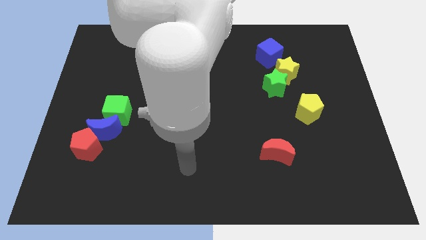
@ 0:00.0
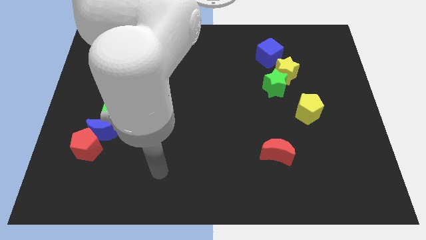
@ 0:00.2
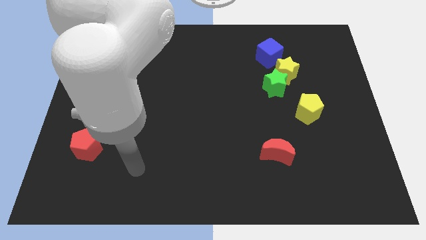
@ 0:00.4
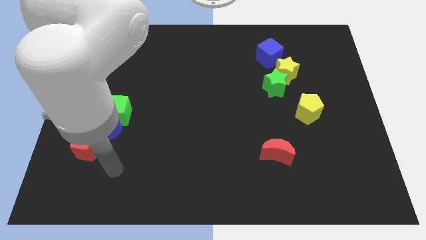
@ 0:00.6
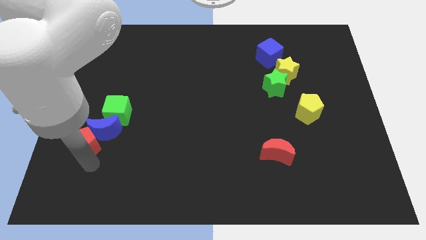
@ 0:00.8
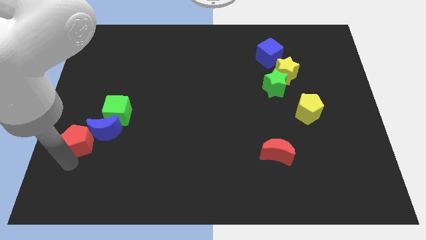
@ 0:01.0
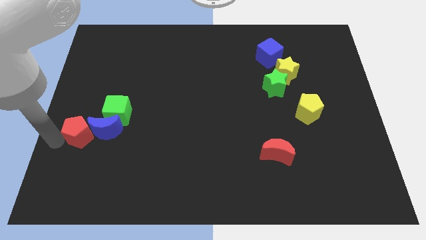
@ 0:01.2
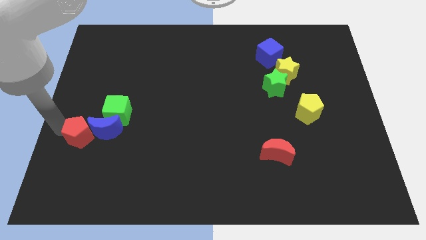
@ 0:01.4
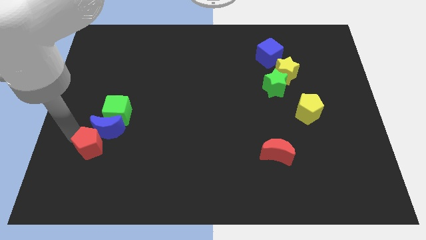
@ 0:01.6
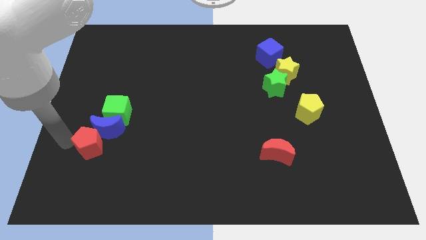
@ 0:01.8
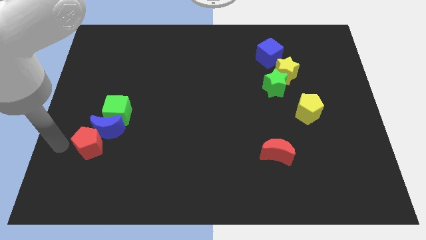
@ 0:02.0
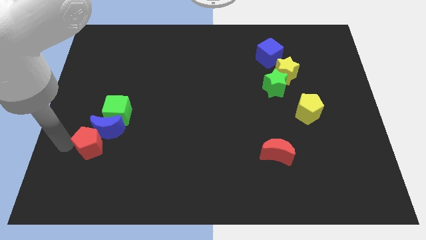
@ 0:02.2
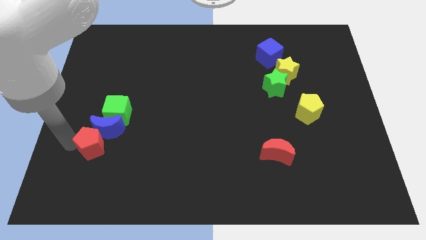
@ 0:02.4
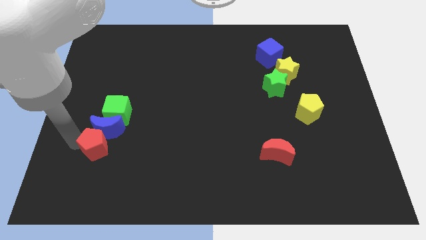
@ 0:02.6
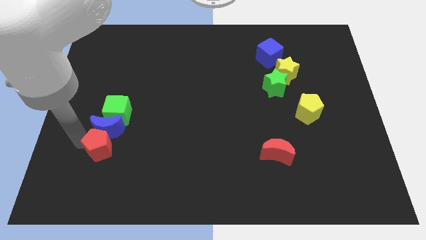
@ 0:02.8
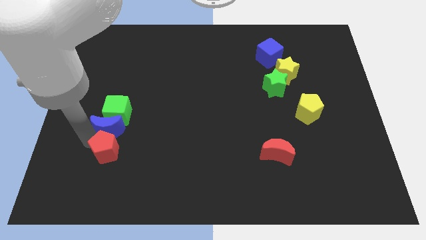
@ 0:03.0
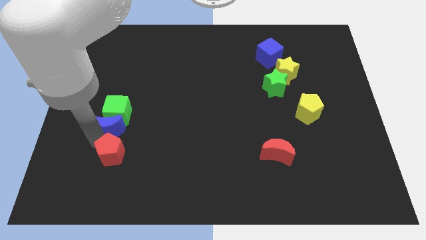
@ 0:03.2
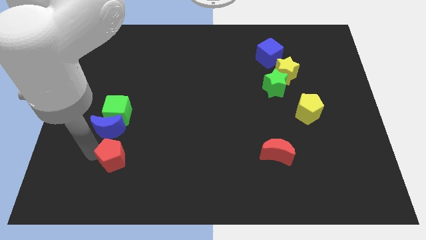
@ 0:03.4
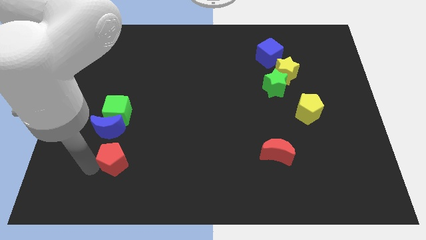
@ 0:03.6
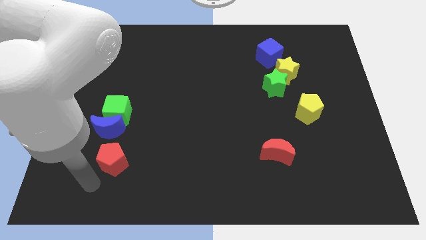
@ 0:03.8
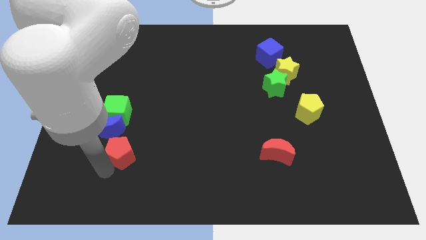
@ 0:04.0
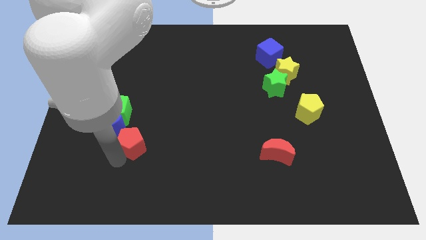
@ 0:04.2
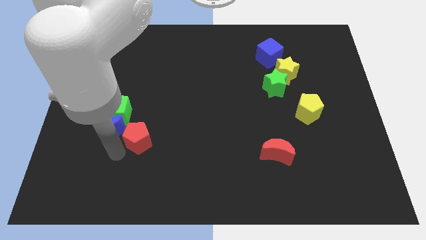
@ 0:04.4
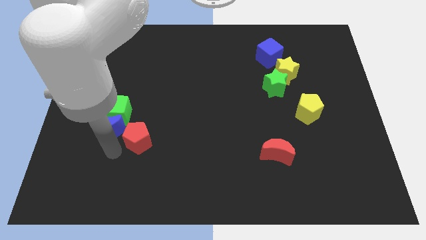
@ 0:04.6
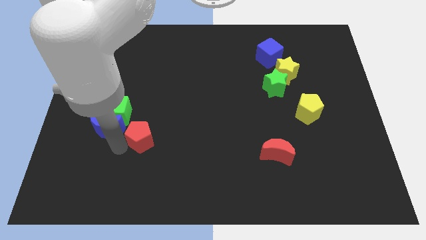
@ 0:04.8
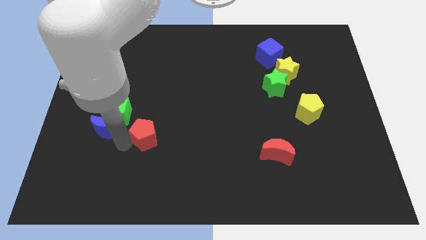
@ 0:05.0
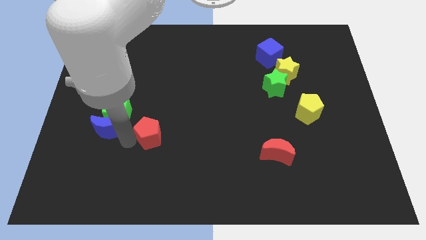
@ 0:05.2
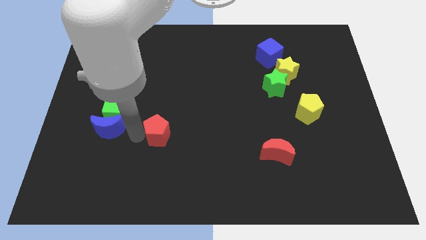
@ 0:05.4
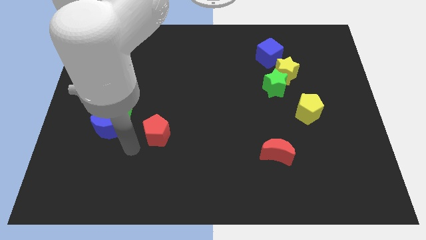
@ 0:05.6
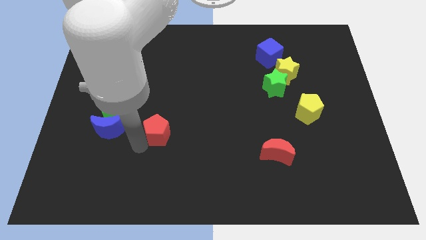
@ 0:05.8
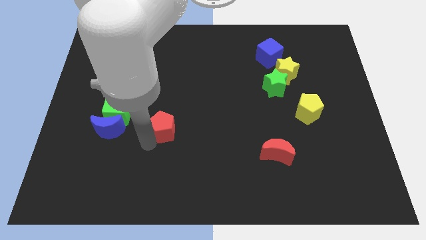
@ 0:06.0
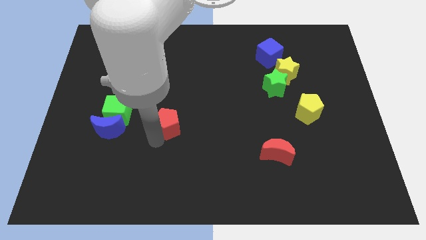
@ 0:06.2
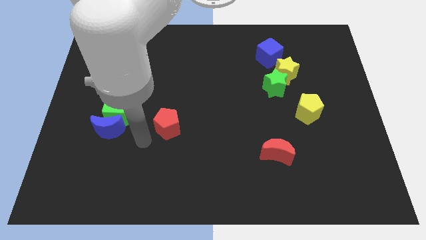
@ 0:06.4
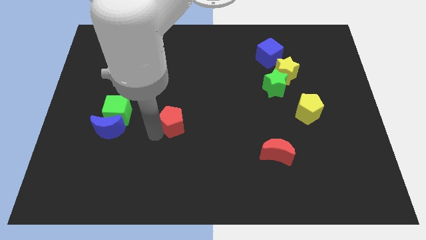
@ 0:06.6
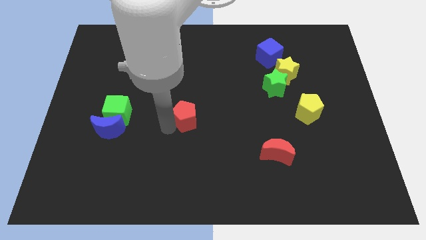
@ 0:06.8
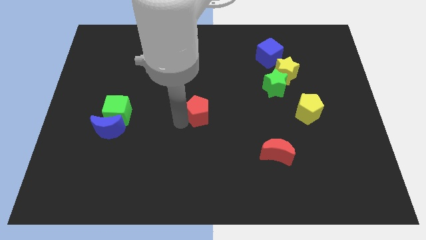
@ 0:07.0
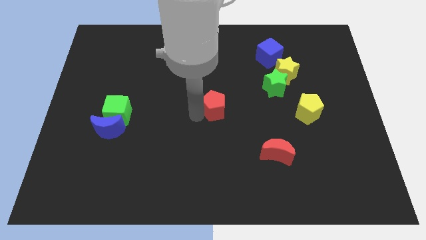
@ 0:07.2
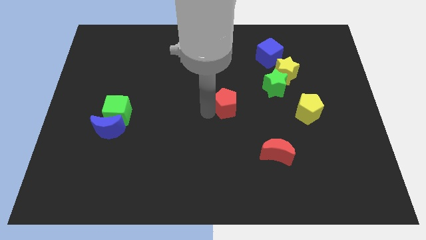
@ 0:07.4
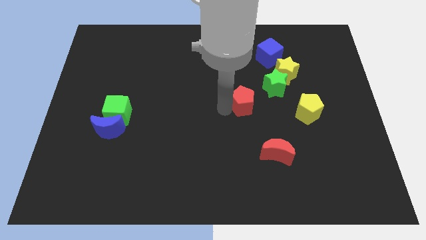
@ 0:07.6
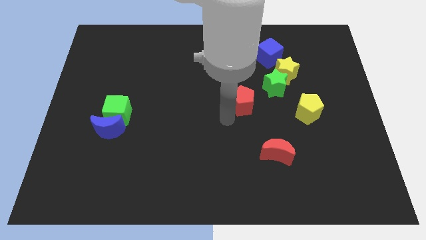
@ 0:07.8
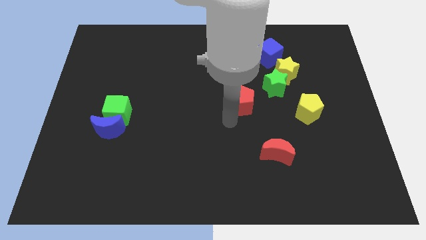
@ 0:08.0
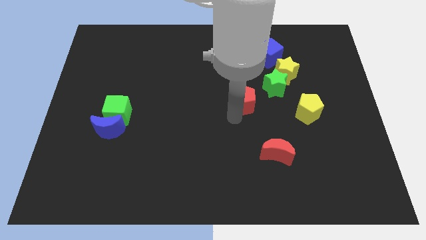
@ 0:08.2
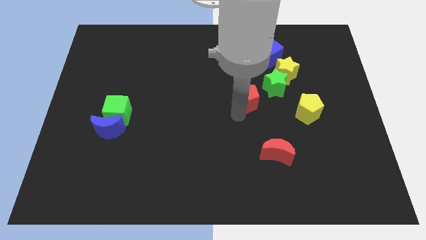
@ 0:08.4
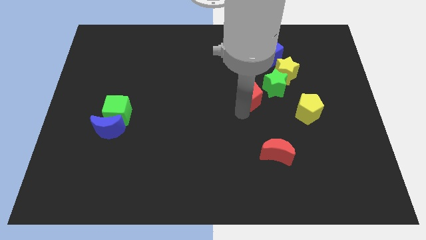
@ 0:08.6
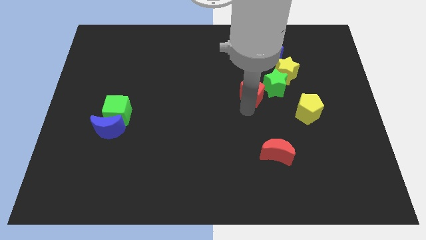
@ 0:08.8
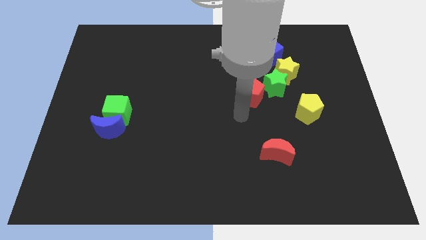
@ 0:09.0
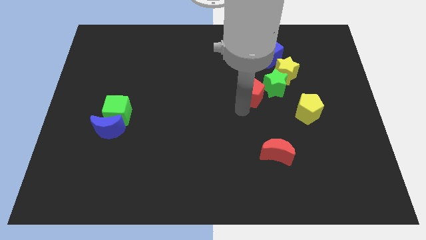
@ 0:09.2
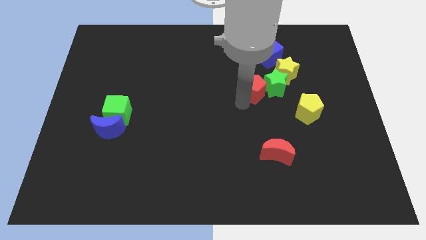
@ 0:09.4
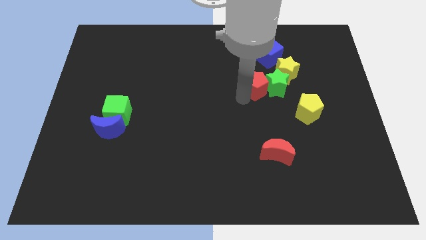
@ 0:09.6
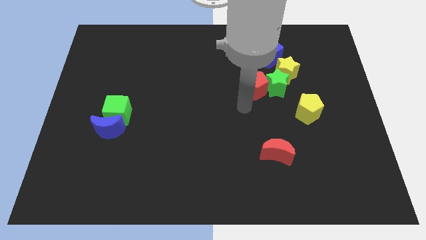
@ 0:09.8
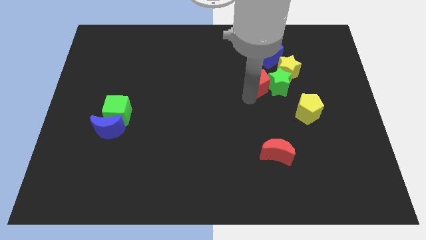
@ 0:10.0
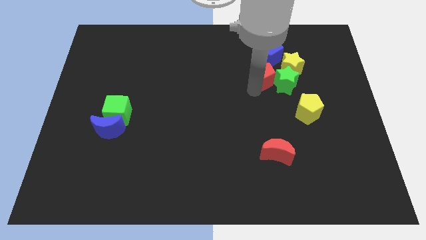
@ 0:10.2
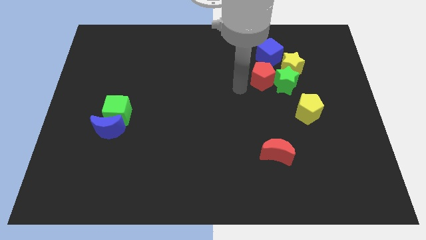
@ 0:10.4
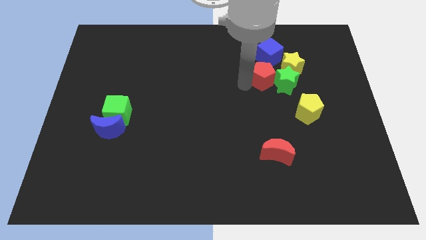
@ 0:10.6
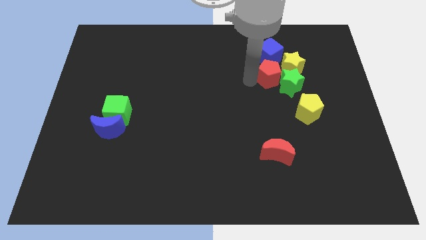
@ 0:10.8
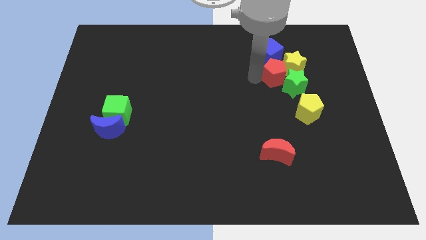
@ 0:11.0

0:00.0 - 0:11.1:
slide the red pentagon to the yellow star

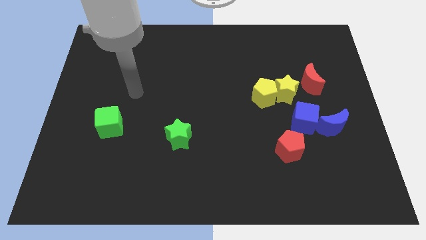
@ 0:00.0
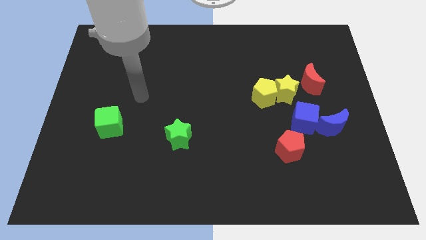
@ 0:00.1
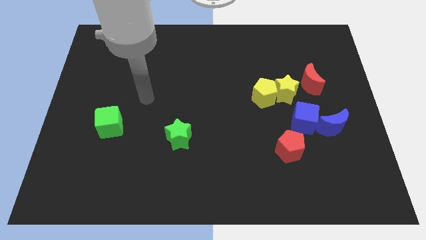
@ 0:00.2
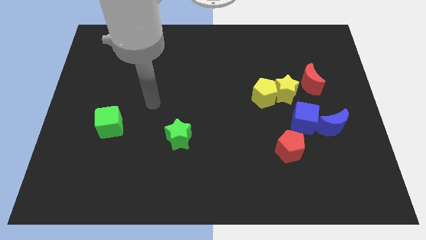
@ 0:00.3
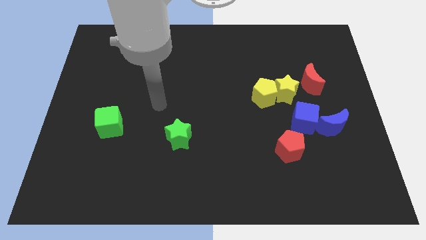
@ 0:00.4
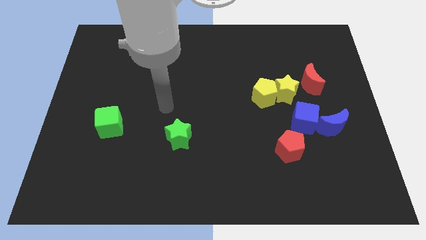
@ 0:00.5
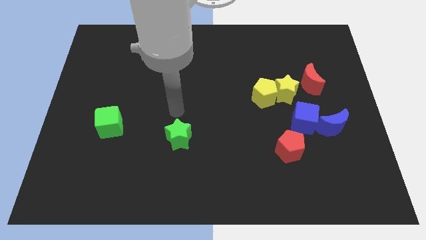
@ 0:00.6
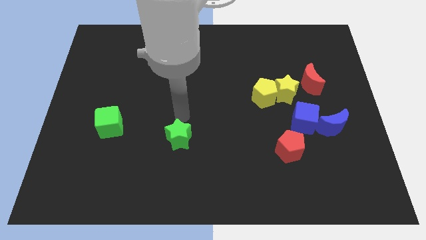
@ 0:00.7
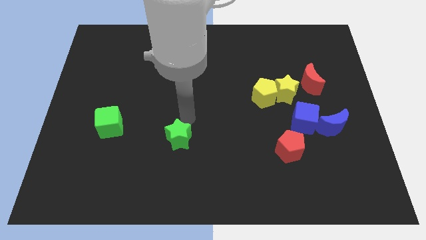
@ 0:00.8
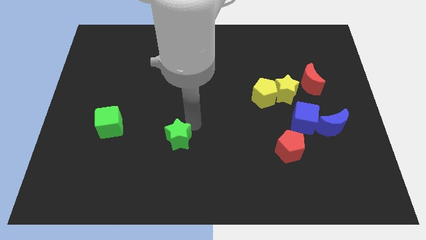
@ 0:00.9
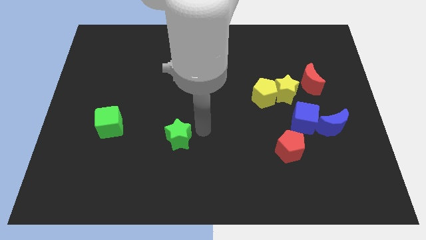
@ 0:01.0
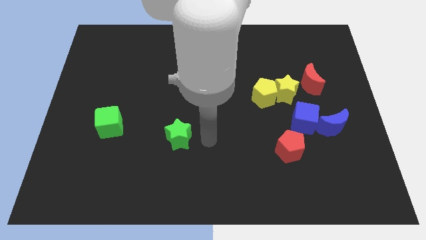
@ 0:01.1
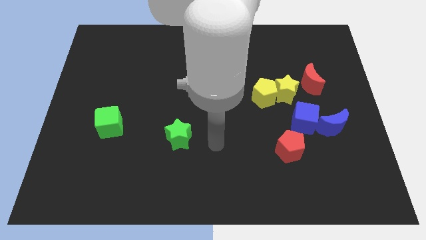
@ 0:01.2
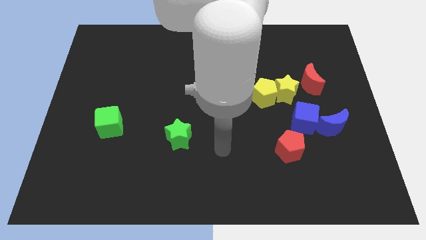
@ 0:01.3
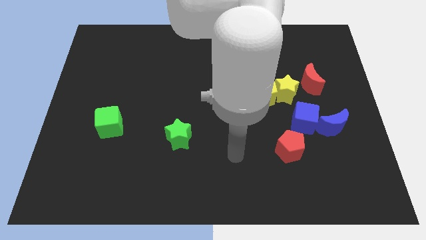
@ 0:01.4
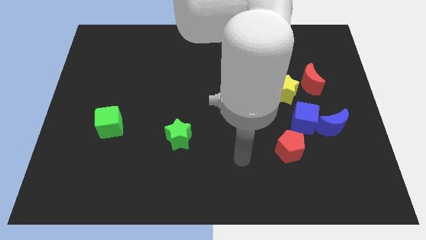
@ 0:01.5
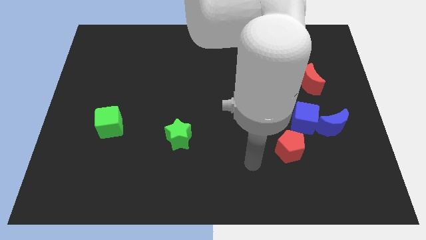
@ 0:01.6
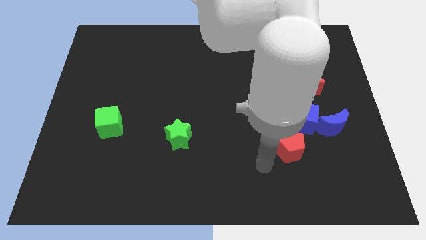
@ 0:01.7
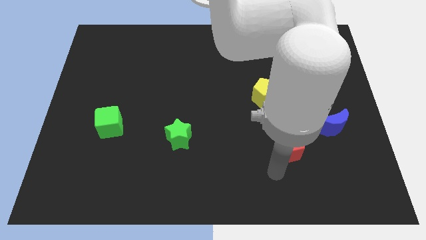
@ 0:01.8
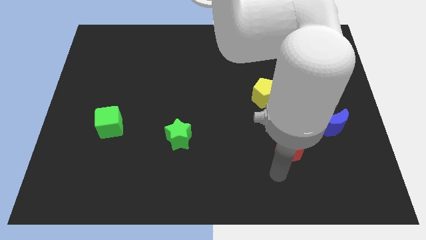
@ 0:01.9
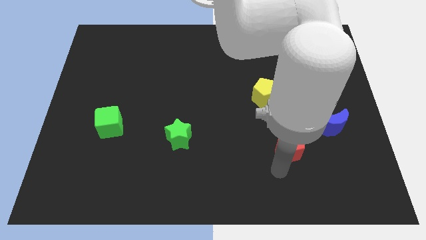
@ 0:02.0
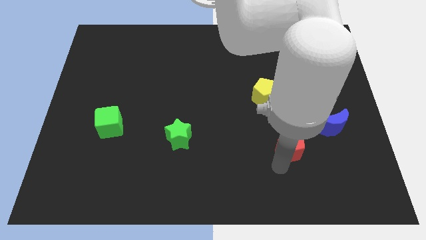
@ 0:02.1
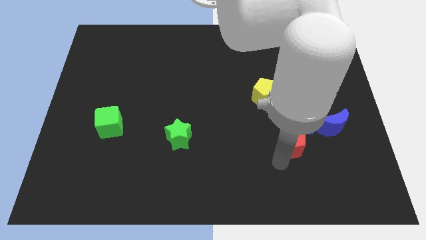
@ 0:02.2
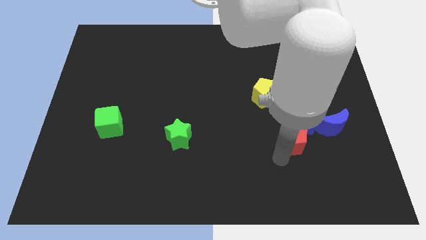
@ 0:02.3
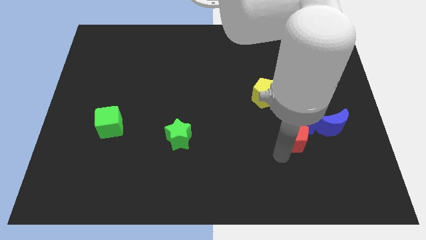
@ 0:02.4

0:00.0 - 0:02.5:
push the red pentagon towards the blue cube
